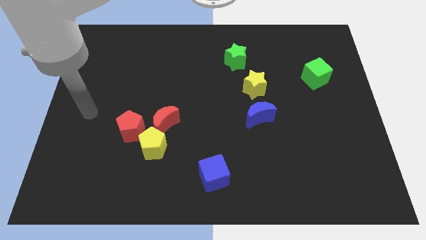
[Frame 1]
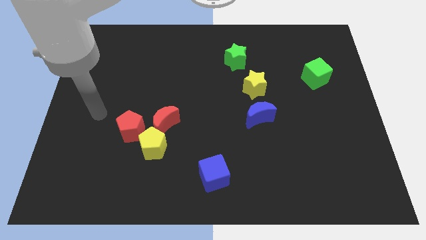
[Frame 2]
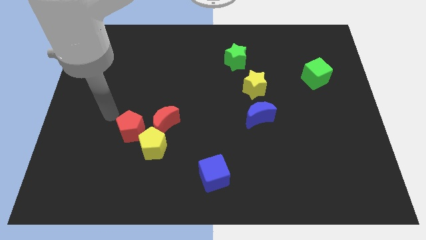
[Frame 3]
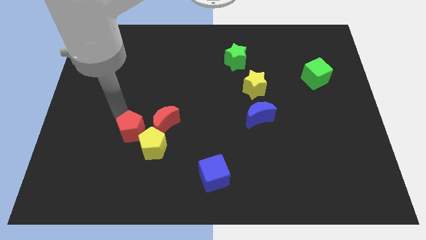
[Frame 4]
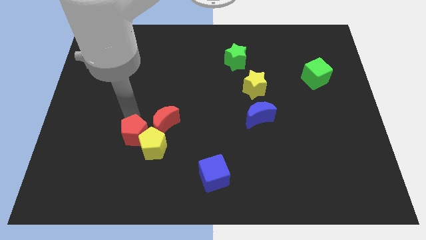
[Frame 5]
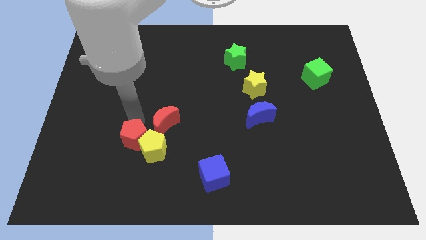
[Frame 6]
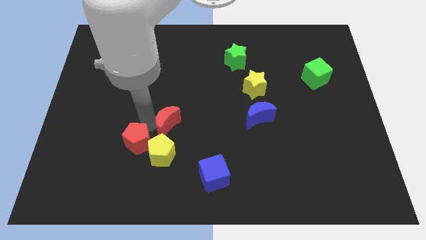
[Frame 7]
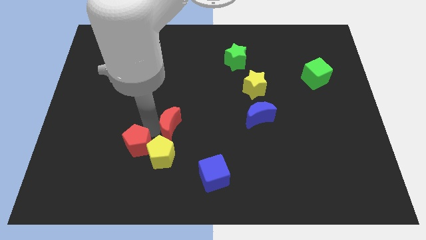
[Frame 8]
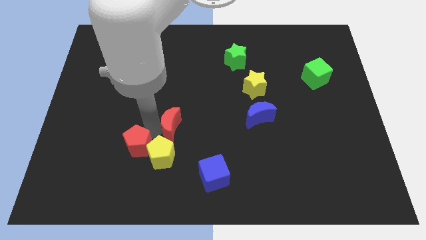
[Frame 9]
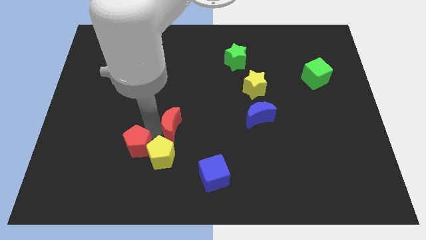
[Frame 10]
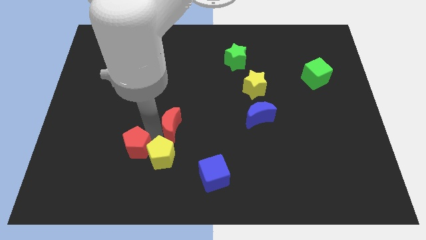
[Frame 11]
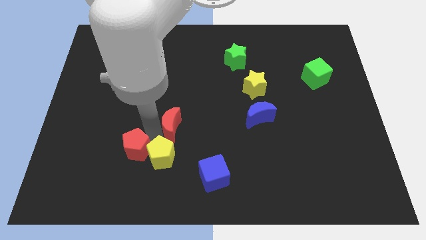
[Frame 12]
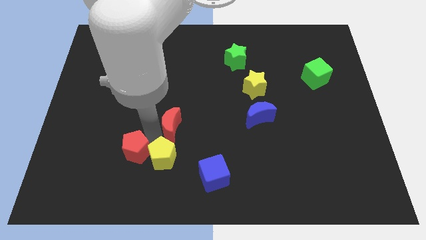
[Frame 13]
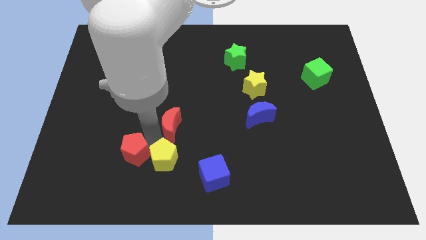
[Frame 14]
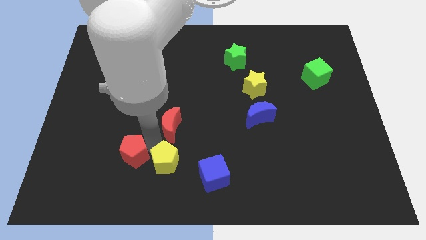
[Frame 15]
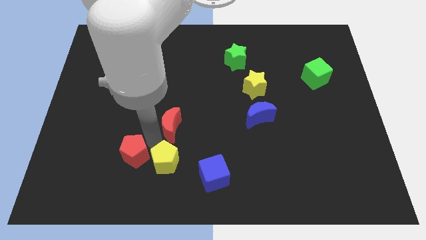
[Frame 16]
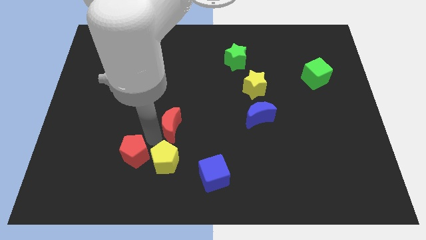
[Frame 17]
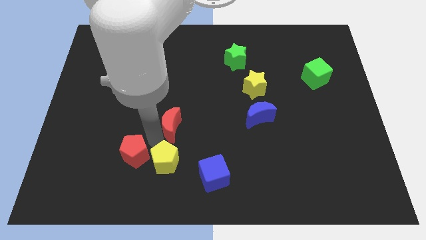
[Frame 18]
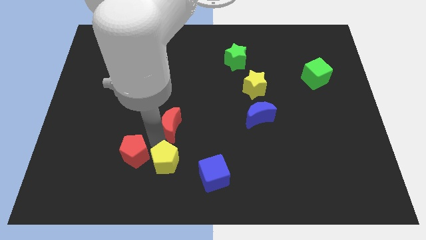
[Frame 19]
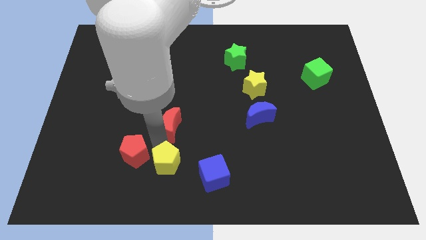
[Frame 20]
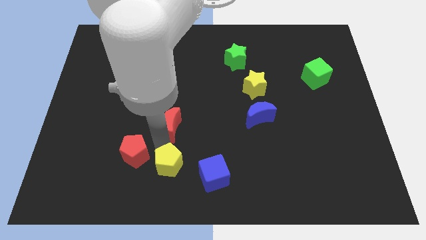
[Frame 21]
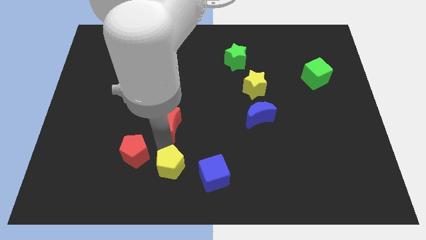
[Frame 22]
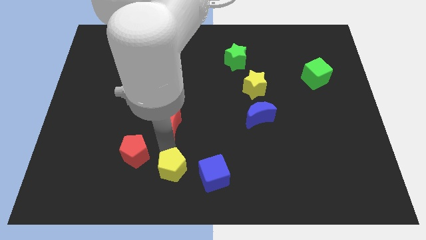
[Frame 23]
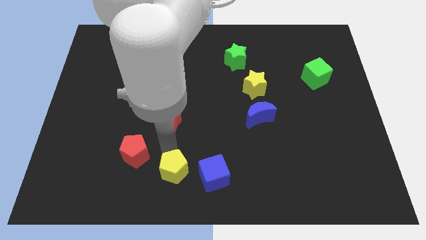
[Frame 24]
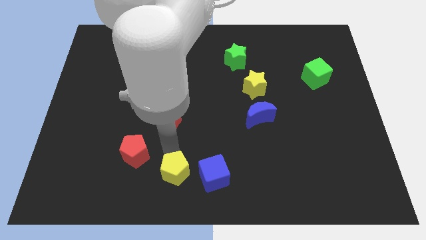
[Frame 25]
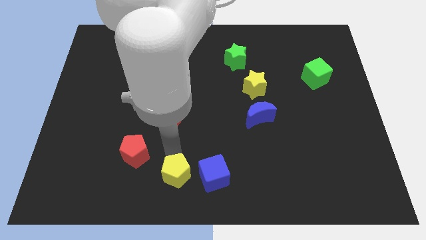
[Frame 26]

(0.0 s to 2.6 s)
separate the yellow pentagon from the red moon and red pentagon

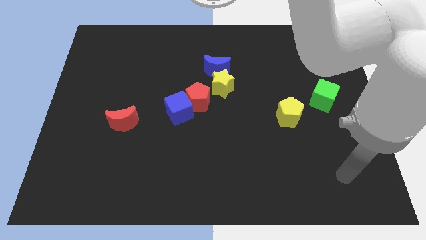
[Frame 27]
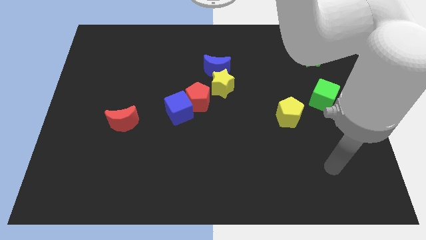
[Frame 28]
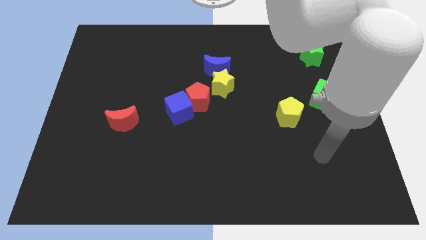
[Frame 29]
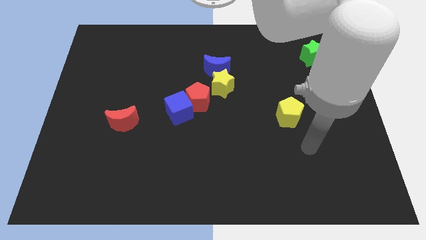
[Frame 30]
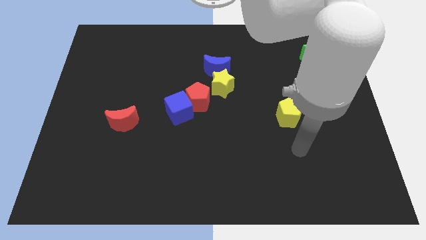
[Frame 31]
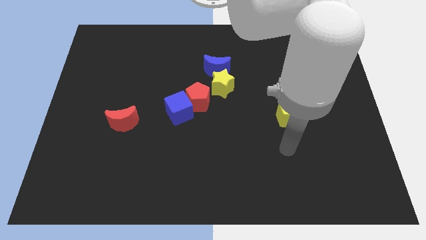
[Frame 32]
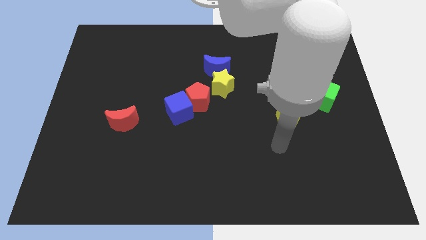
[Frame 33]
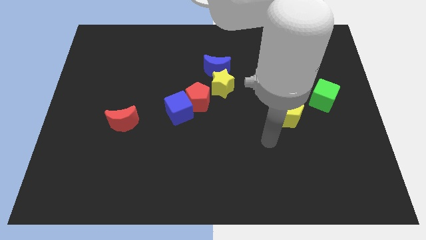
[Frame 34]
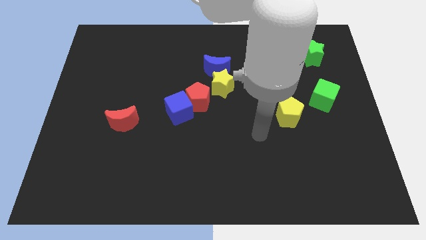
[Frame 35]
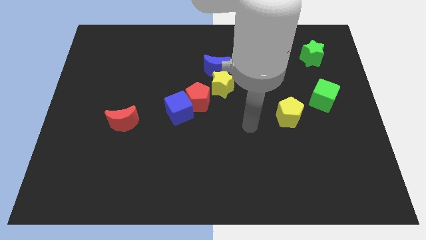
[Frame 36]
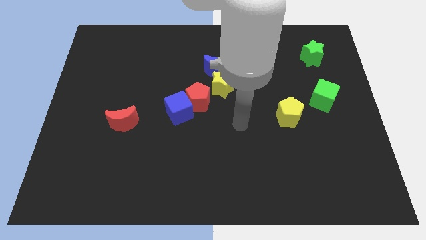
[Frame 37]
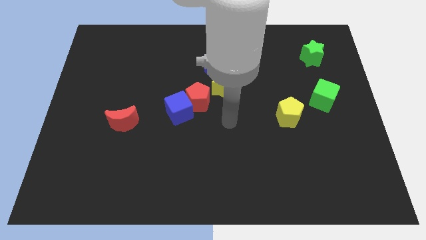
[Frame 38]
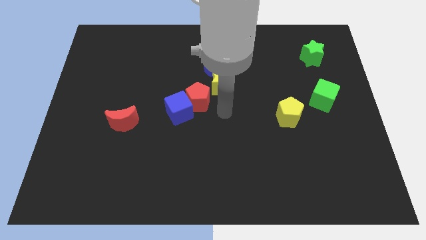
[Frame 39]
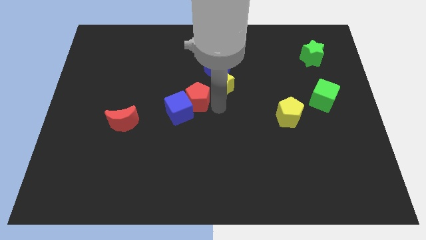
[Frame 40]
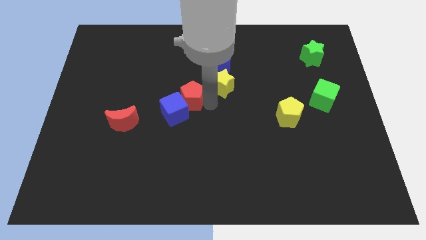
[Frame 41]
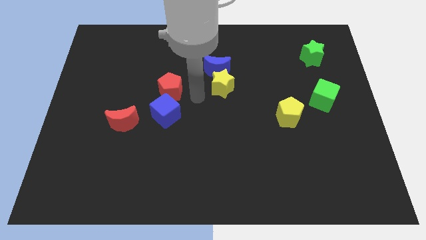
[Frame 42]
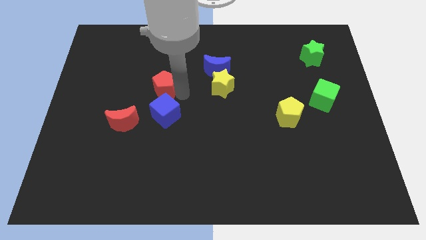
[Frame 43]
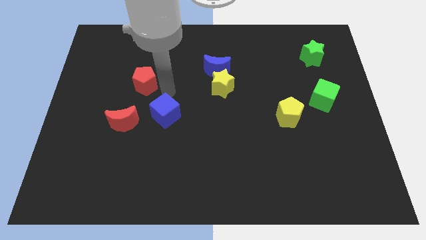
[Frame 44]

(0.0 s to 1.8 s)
move the blue cube away from the red pentagon

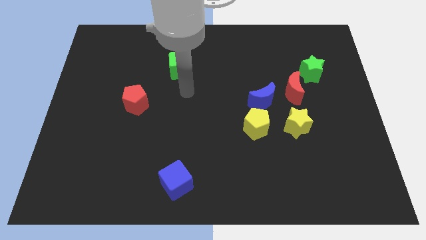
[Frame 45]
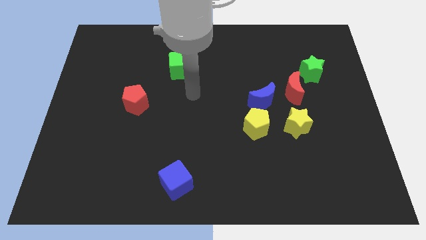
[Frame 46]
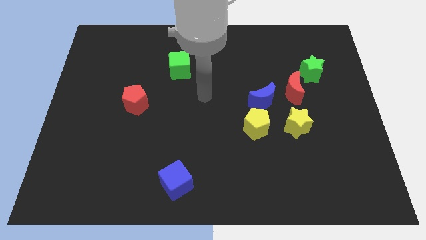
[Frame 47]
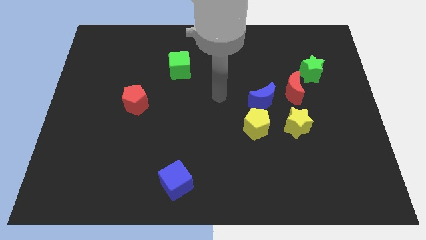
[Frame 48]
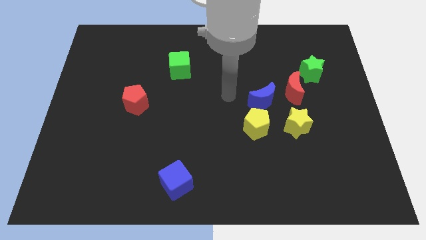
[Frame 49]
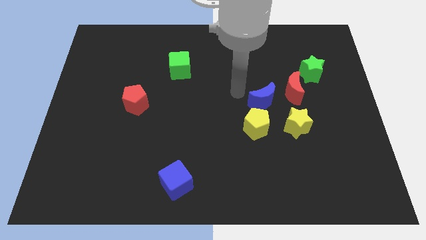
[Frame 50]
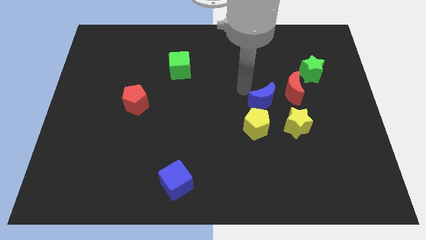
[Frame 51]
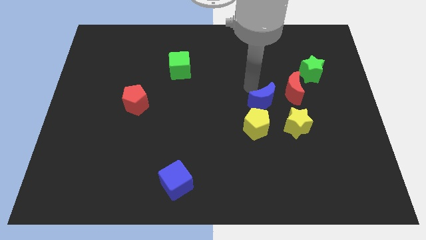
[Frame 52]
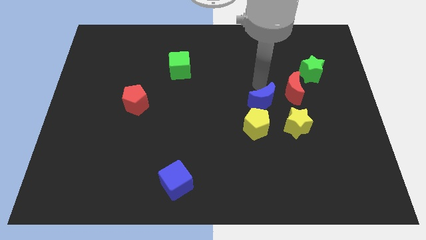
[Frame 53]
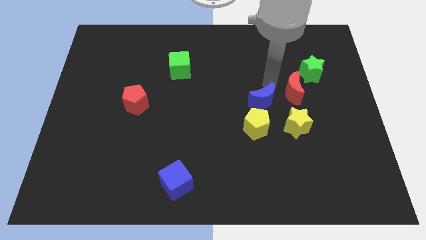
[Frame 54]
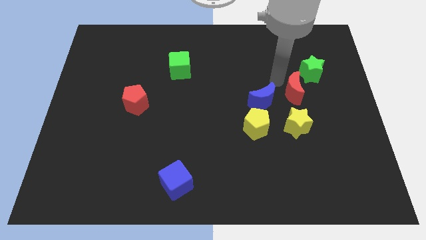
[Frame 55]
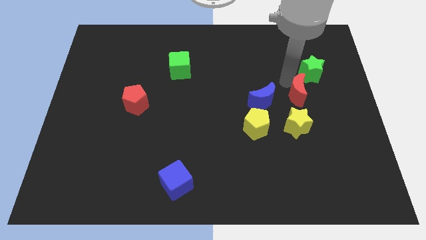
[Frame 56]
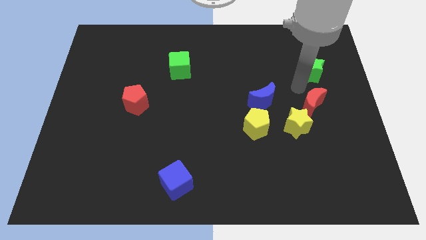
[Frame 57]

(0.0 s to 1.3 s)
pull the green star apart from the red moon

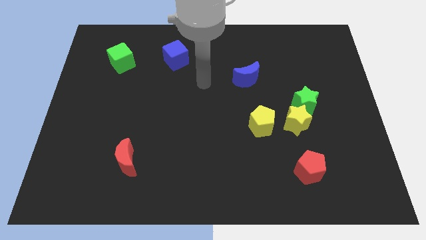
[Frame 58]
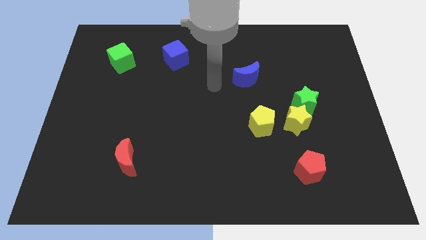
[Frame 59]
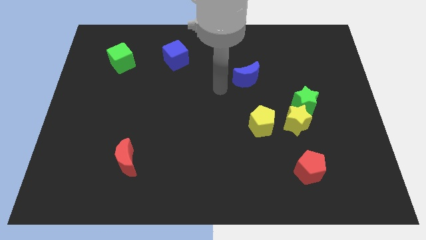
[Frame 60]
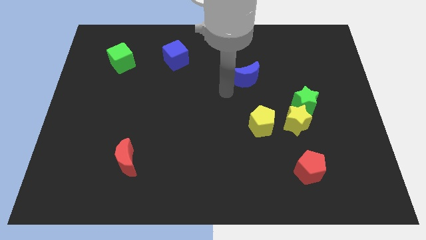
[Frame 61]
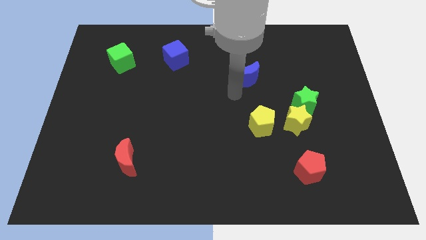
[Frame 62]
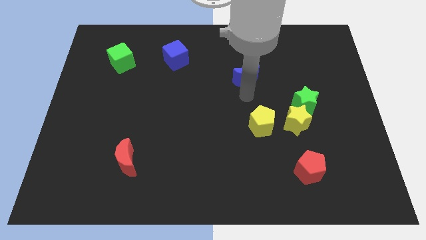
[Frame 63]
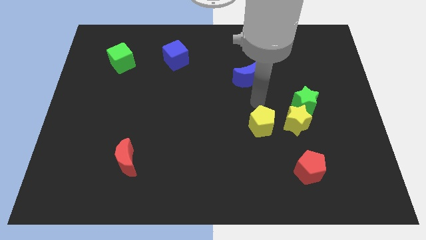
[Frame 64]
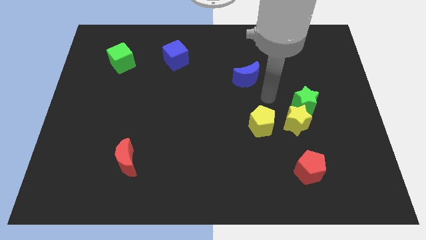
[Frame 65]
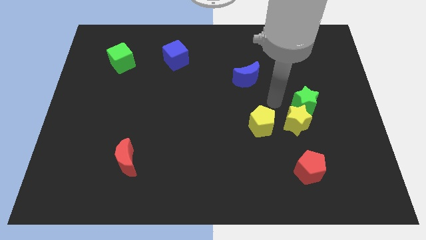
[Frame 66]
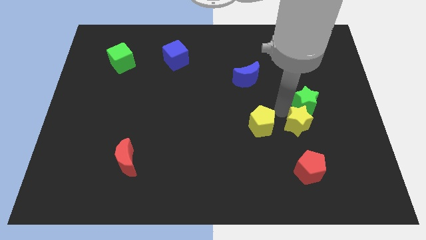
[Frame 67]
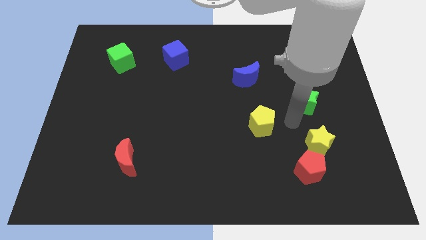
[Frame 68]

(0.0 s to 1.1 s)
move the green star away from the yellow star

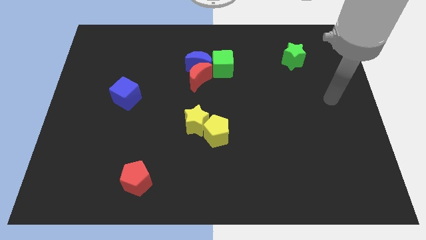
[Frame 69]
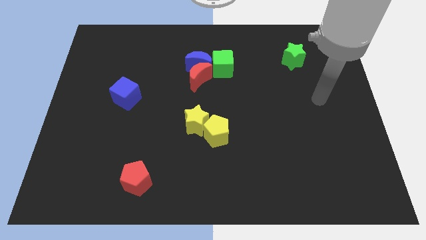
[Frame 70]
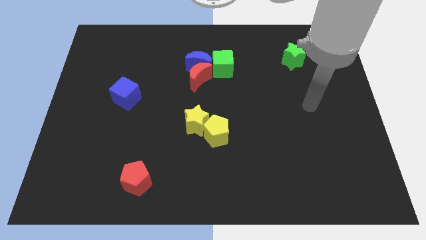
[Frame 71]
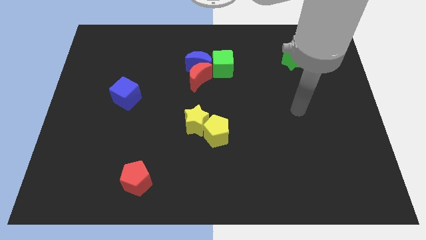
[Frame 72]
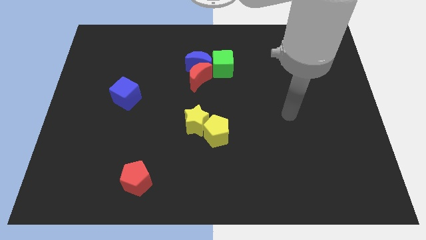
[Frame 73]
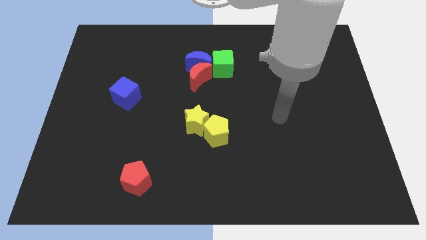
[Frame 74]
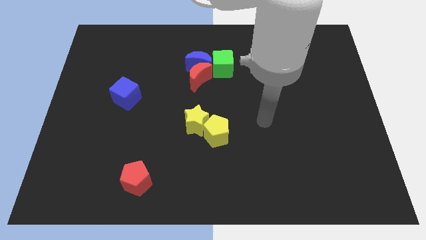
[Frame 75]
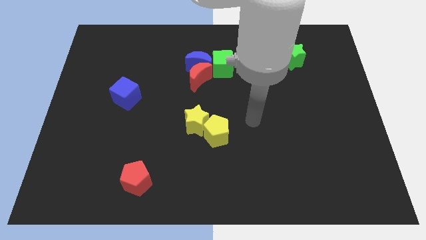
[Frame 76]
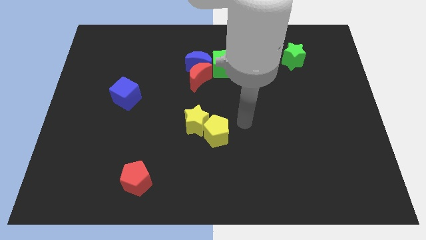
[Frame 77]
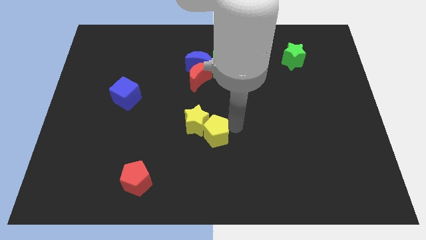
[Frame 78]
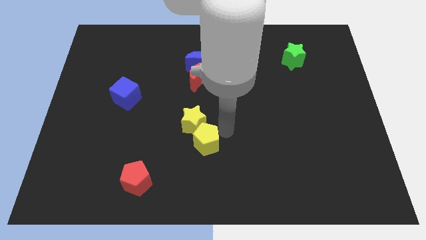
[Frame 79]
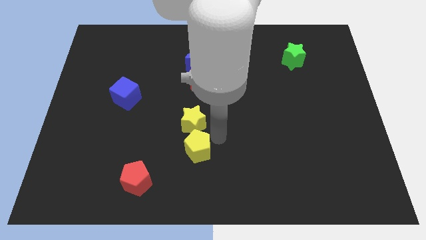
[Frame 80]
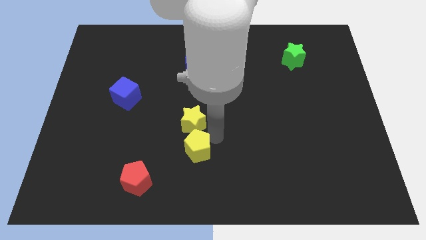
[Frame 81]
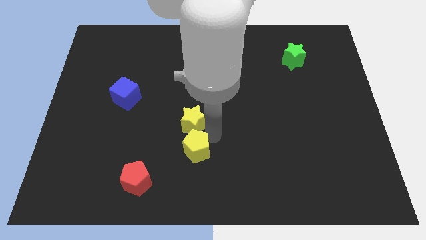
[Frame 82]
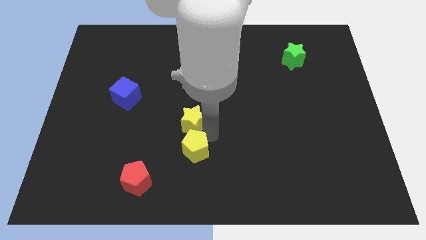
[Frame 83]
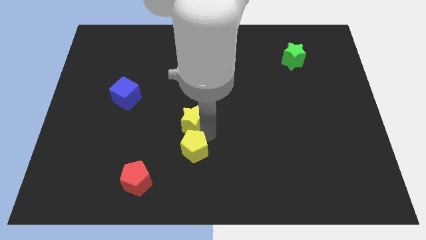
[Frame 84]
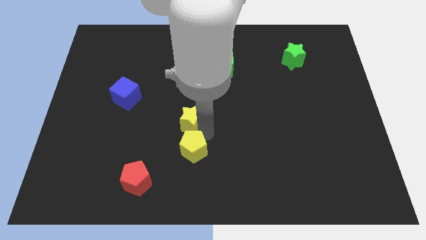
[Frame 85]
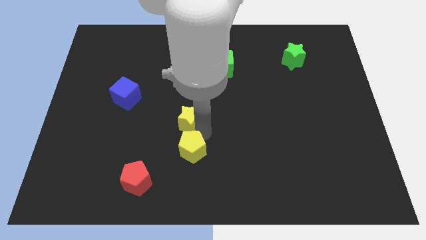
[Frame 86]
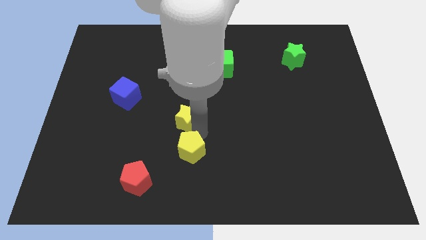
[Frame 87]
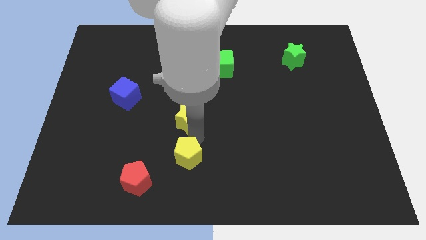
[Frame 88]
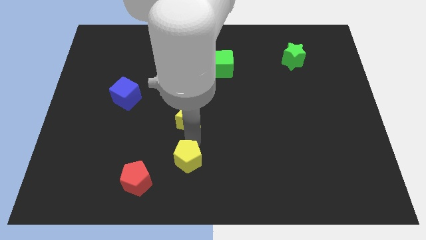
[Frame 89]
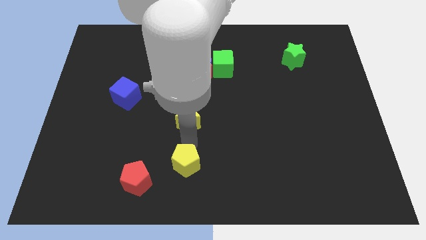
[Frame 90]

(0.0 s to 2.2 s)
separate the yellow star from the yellow pentagon

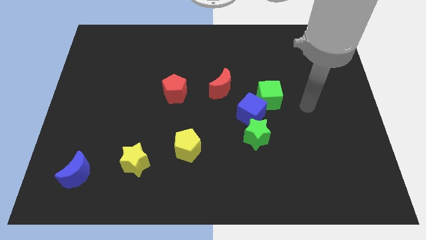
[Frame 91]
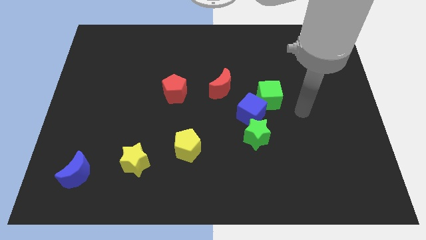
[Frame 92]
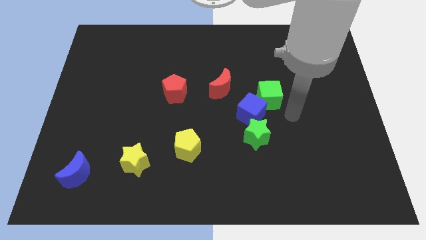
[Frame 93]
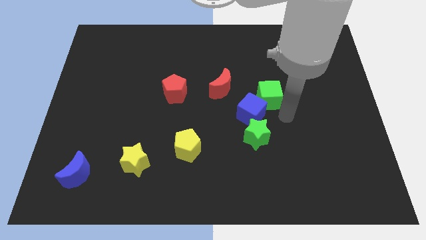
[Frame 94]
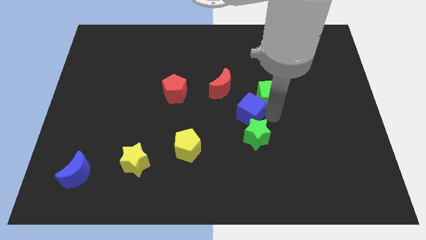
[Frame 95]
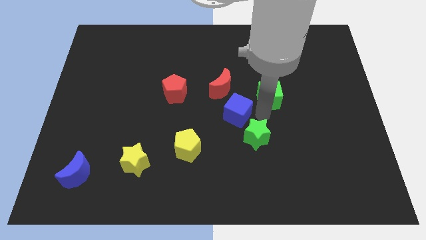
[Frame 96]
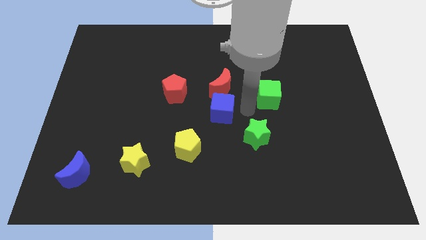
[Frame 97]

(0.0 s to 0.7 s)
move the green cube away from the blue cube
